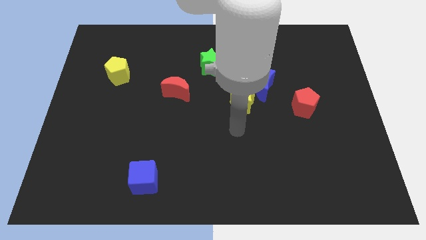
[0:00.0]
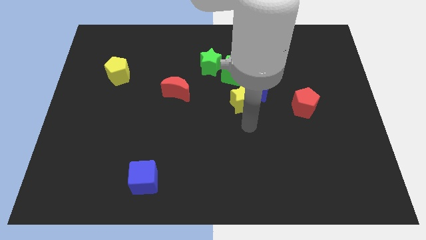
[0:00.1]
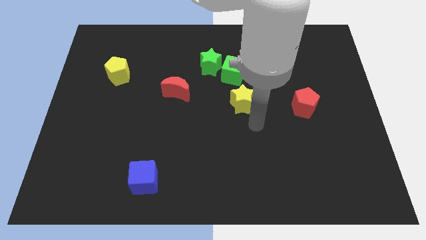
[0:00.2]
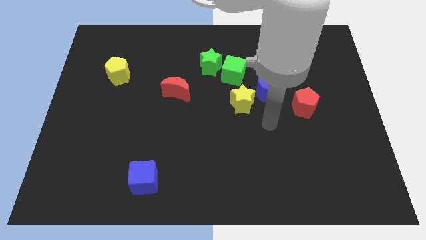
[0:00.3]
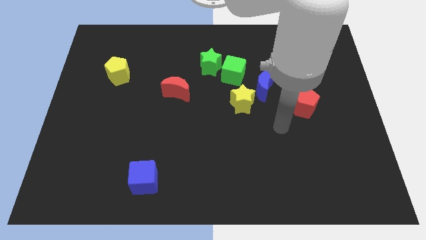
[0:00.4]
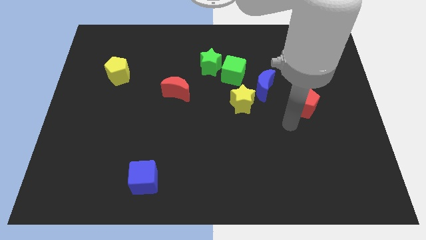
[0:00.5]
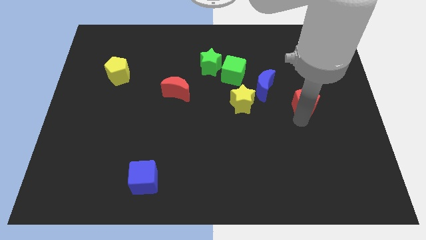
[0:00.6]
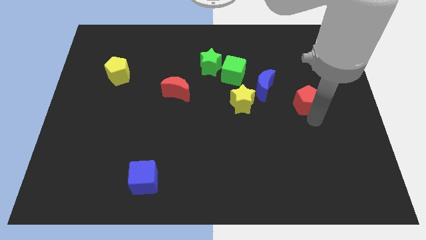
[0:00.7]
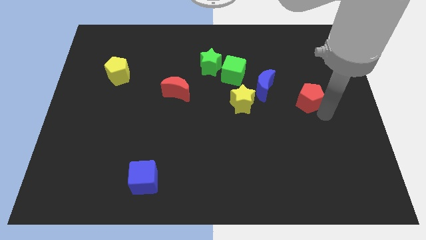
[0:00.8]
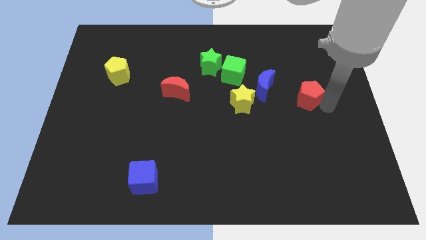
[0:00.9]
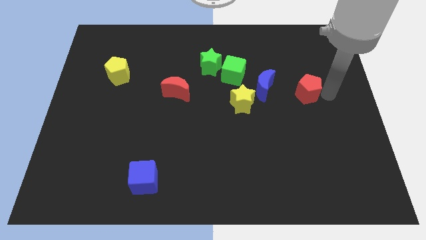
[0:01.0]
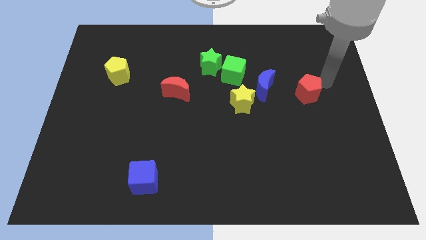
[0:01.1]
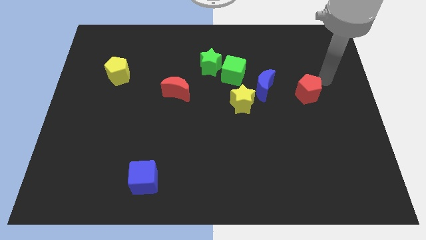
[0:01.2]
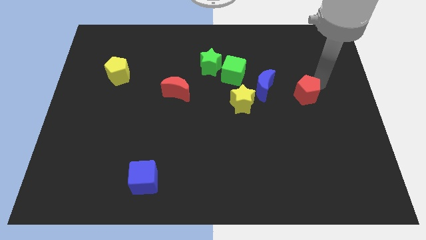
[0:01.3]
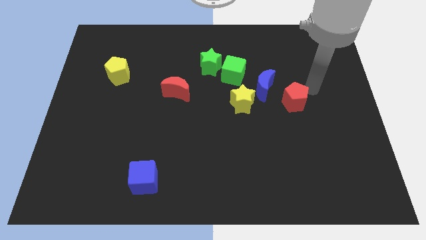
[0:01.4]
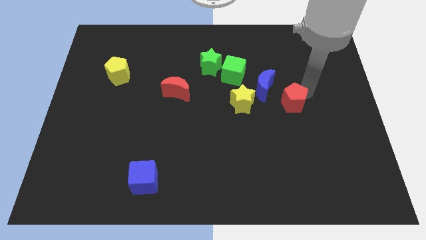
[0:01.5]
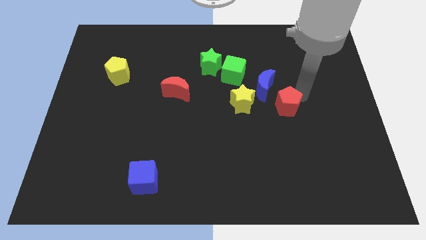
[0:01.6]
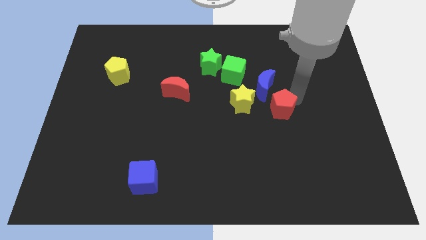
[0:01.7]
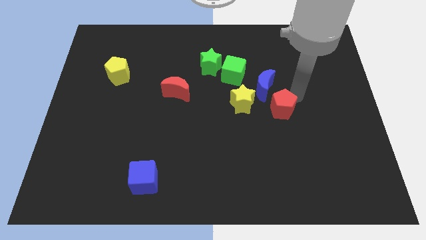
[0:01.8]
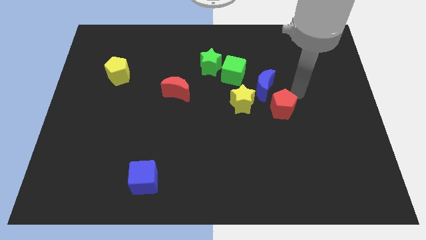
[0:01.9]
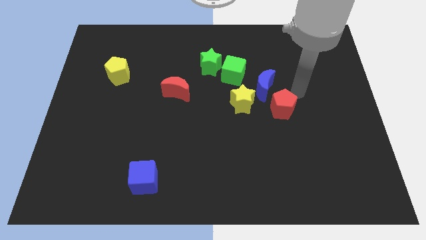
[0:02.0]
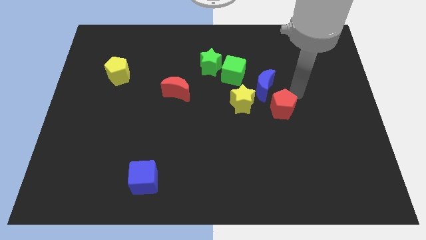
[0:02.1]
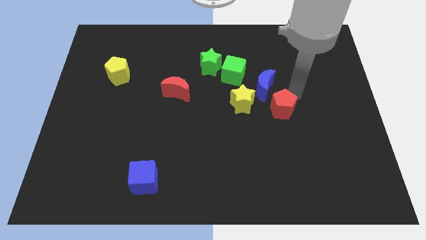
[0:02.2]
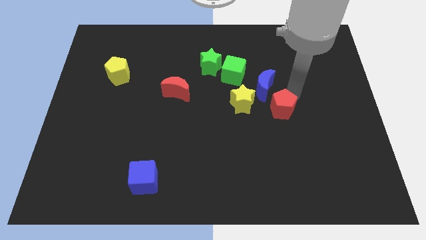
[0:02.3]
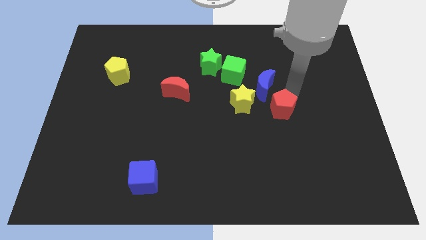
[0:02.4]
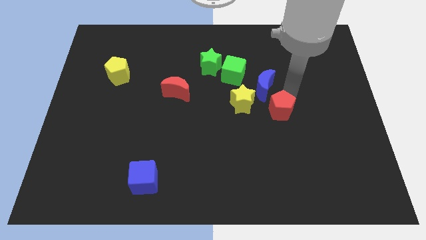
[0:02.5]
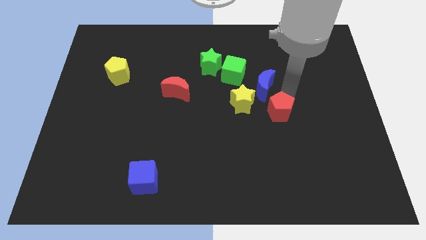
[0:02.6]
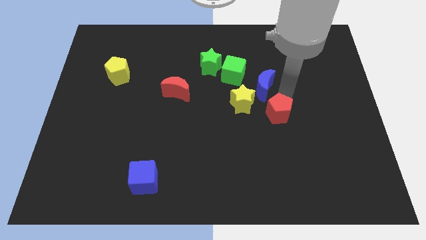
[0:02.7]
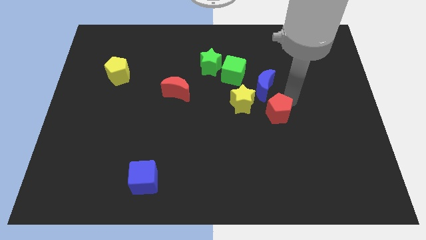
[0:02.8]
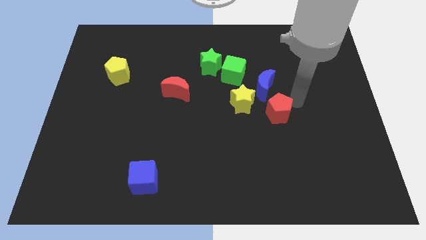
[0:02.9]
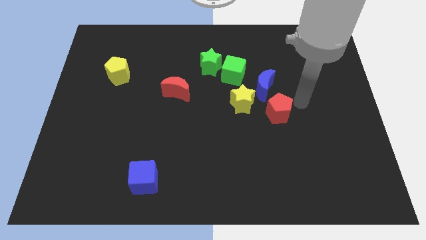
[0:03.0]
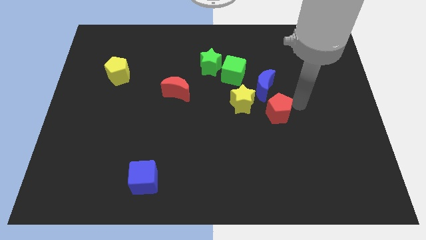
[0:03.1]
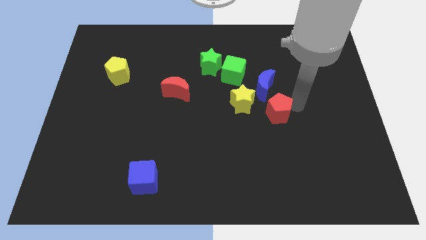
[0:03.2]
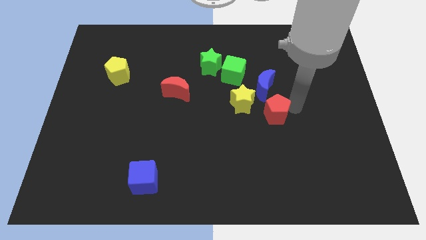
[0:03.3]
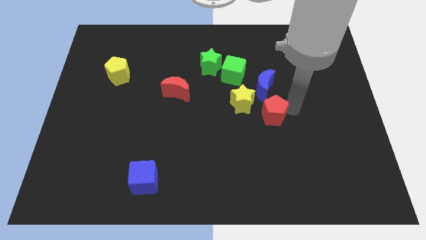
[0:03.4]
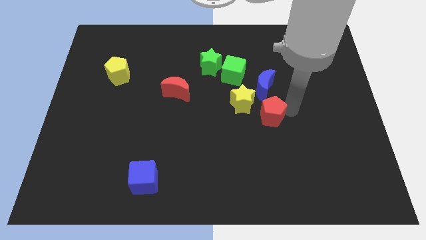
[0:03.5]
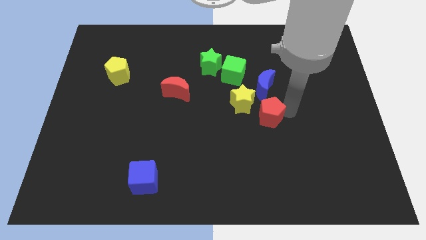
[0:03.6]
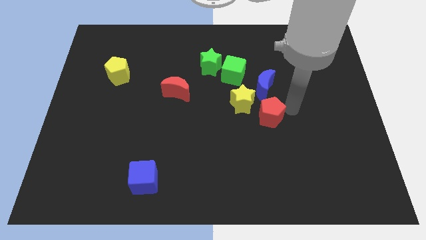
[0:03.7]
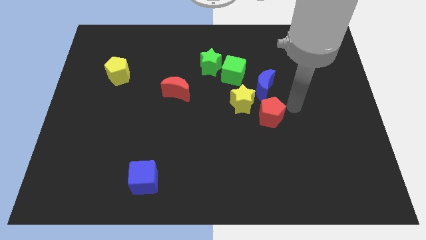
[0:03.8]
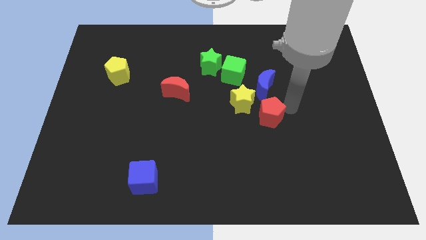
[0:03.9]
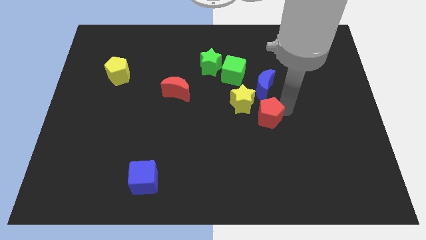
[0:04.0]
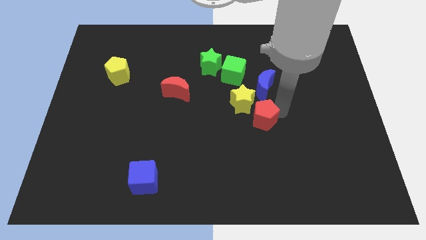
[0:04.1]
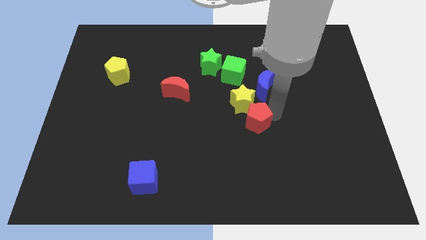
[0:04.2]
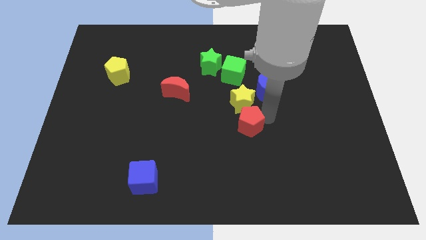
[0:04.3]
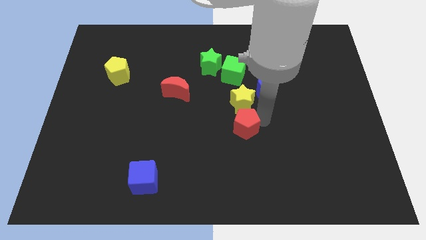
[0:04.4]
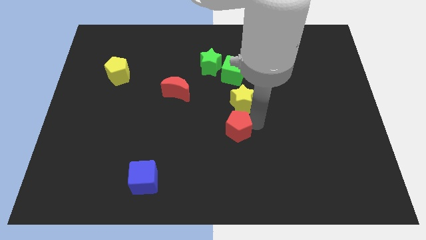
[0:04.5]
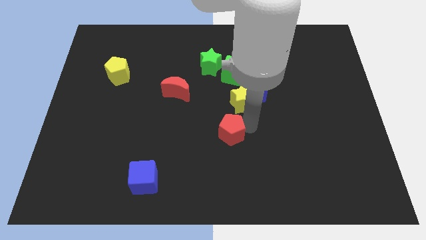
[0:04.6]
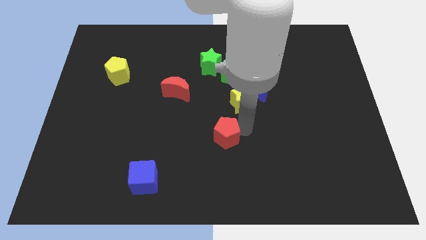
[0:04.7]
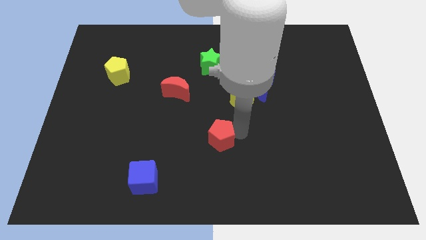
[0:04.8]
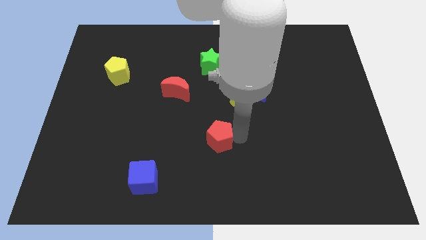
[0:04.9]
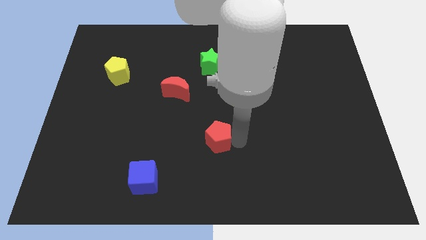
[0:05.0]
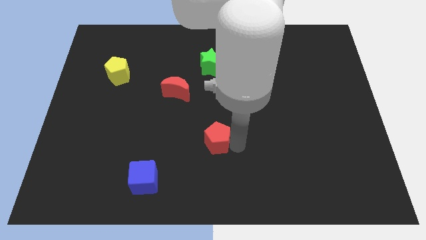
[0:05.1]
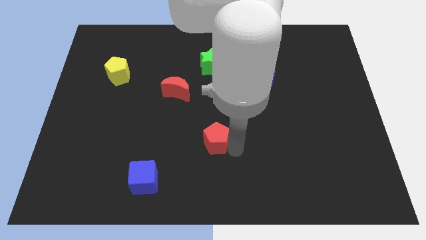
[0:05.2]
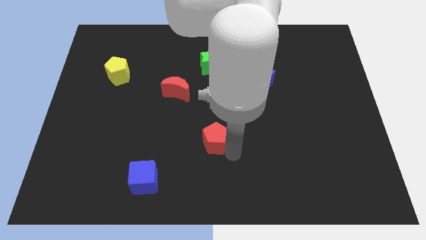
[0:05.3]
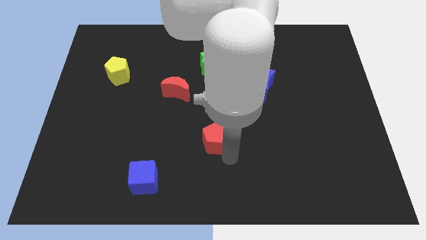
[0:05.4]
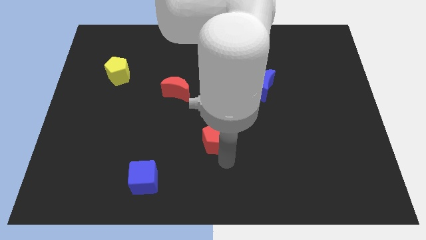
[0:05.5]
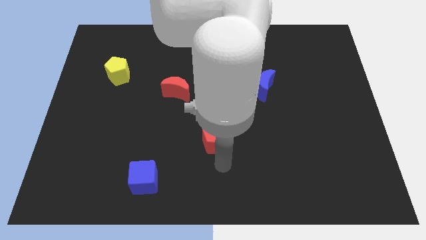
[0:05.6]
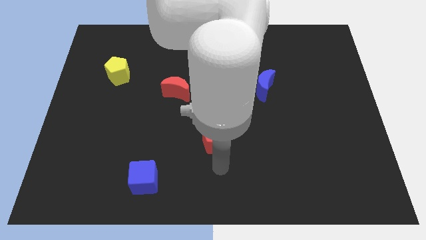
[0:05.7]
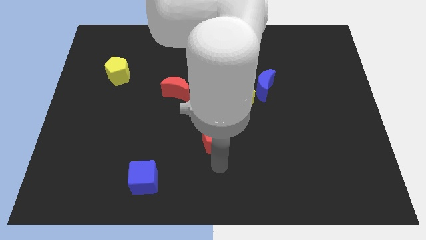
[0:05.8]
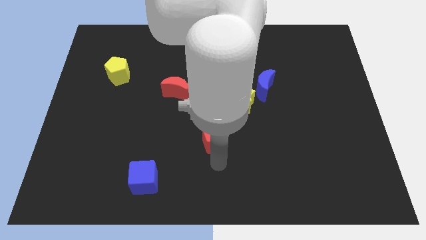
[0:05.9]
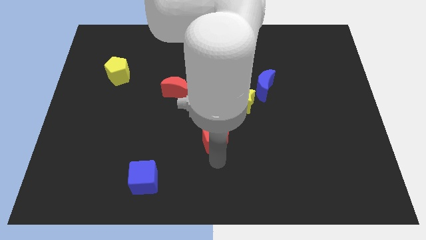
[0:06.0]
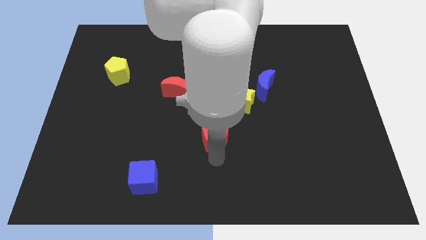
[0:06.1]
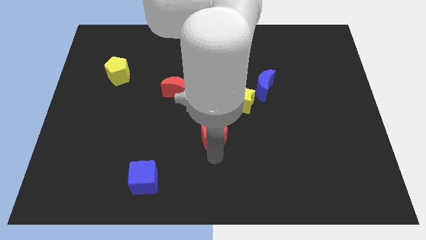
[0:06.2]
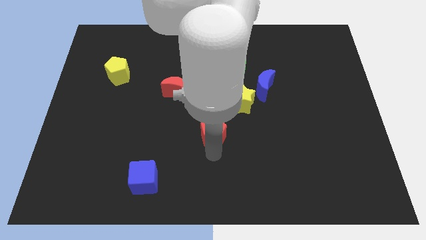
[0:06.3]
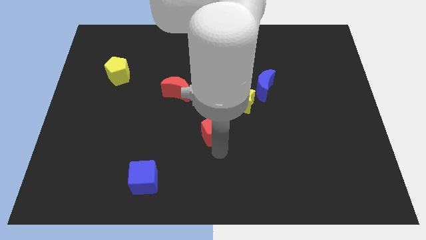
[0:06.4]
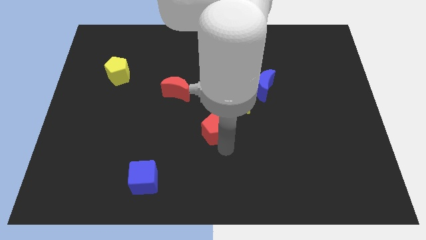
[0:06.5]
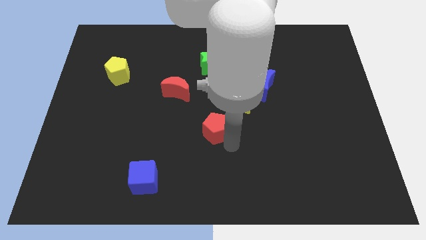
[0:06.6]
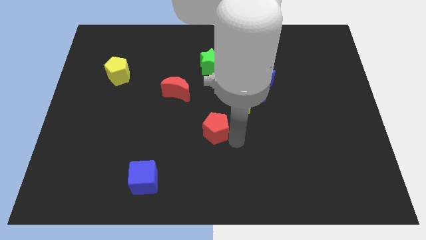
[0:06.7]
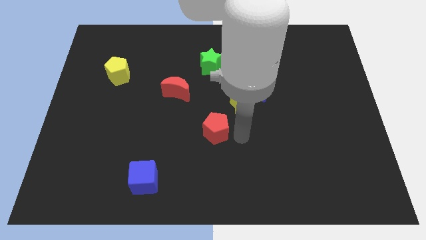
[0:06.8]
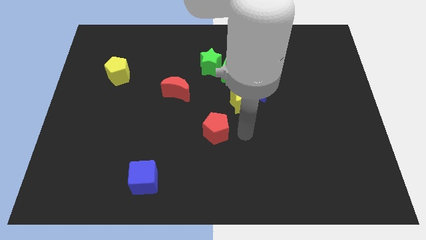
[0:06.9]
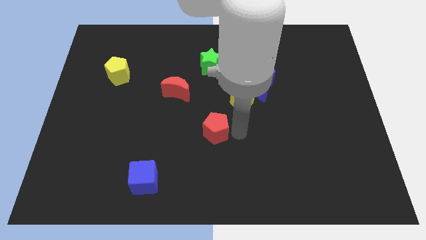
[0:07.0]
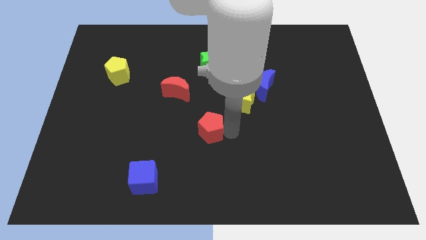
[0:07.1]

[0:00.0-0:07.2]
push the red pentagon left

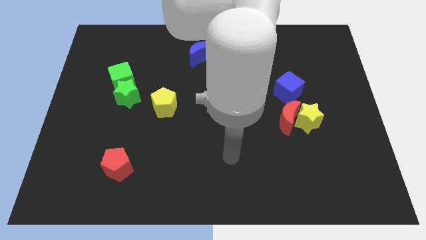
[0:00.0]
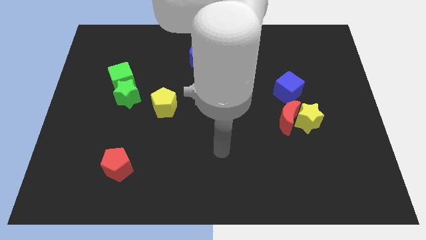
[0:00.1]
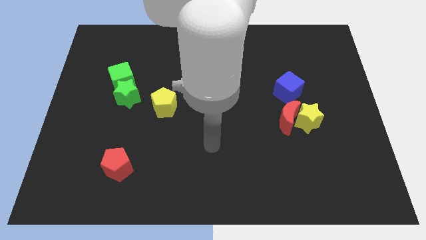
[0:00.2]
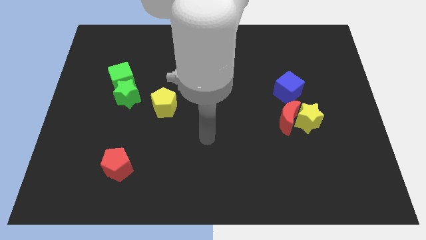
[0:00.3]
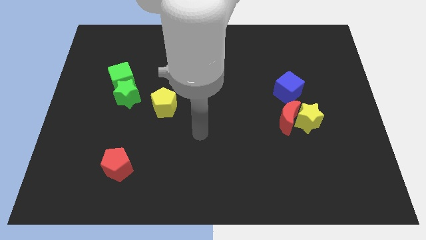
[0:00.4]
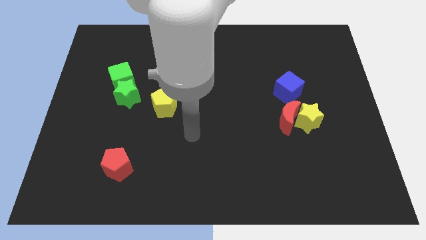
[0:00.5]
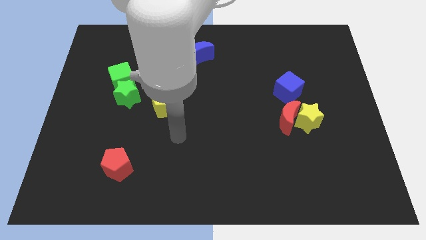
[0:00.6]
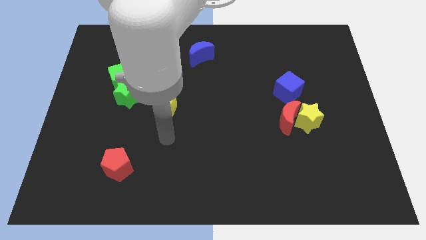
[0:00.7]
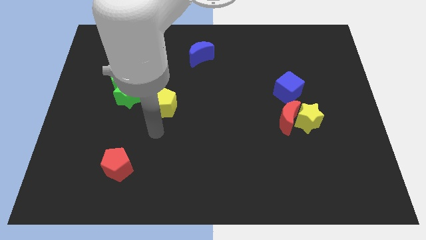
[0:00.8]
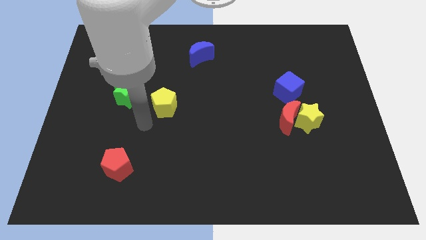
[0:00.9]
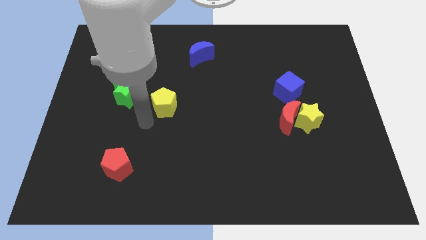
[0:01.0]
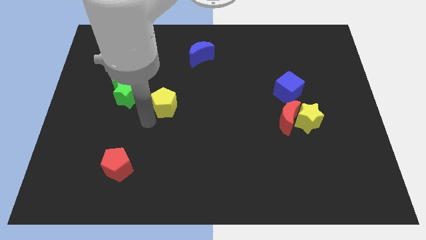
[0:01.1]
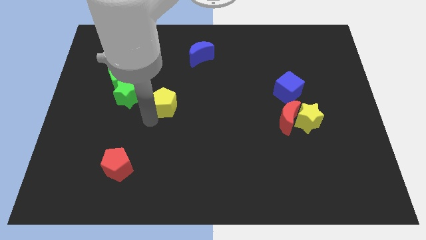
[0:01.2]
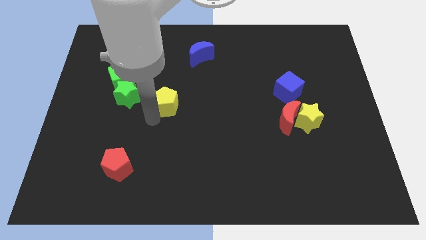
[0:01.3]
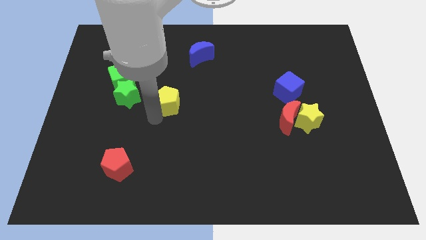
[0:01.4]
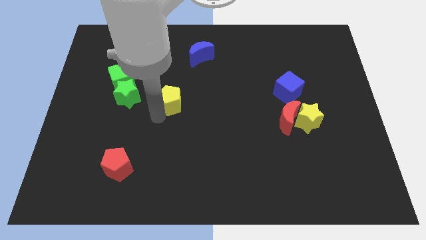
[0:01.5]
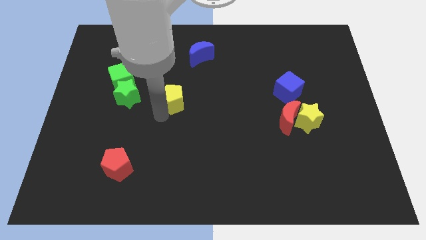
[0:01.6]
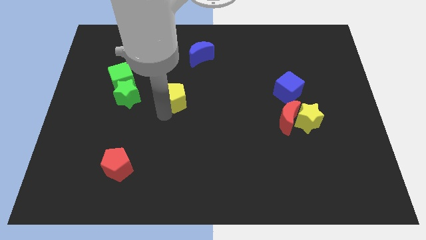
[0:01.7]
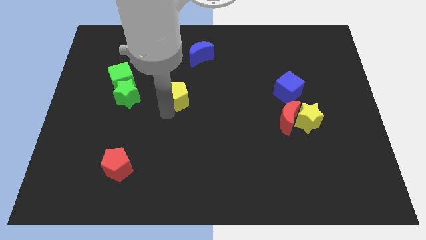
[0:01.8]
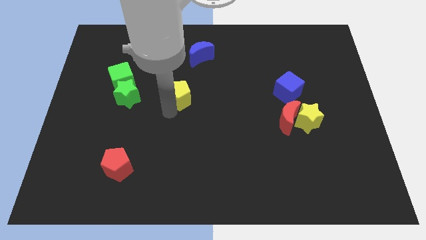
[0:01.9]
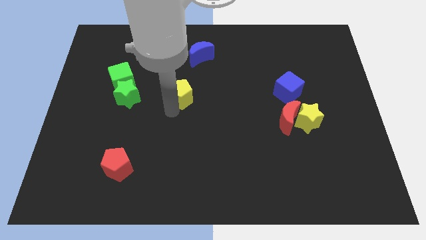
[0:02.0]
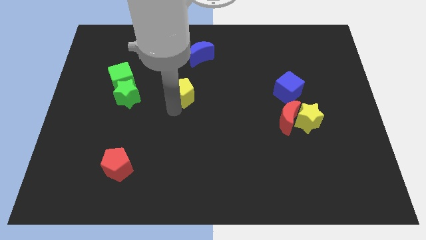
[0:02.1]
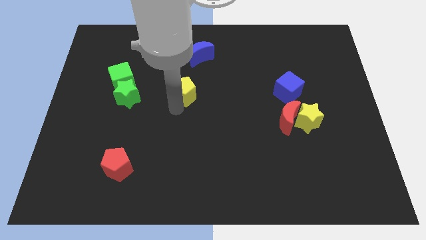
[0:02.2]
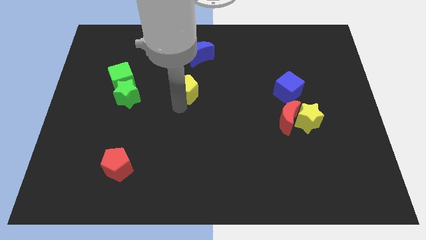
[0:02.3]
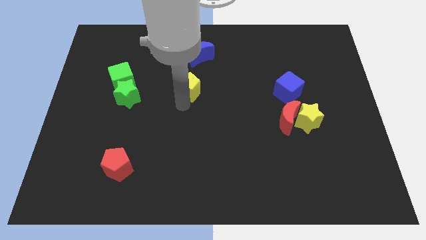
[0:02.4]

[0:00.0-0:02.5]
move the yellow pentagon up and then to the right a little
